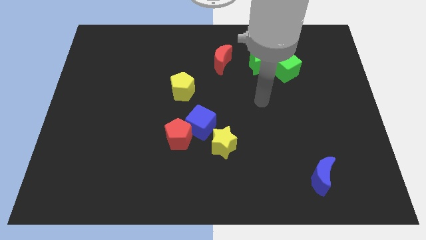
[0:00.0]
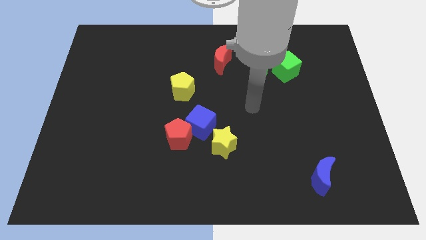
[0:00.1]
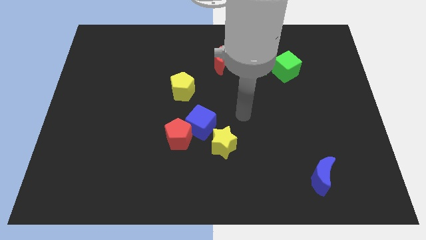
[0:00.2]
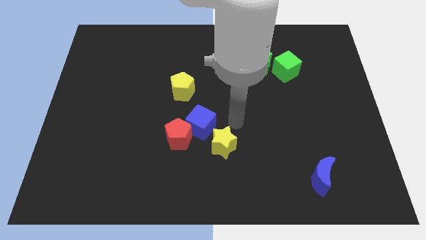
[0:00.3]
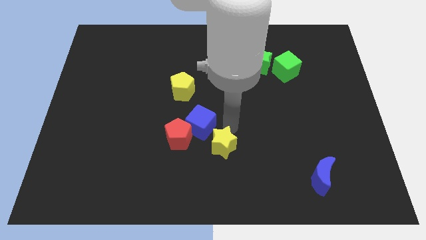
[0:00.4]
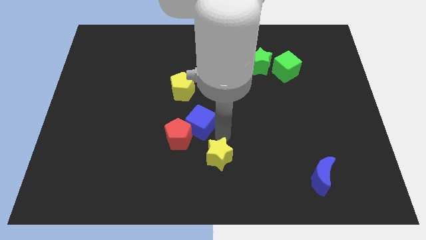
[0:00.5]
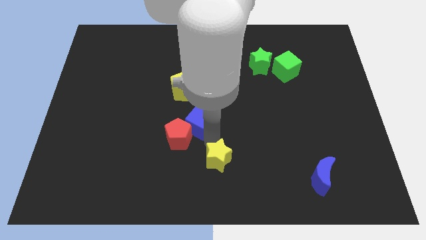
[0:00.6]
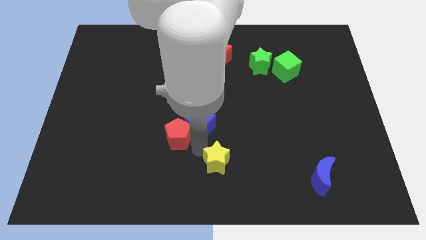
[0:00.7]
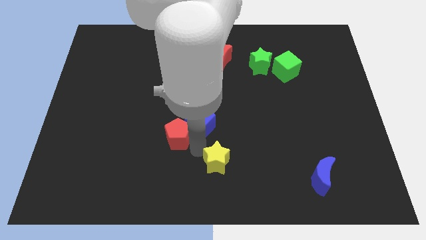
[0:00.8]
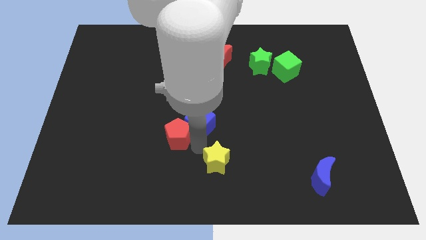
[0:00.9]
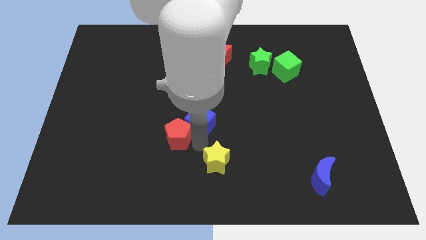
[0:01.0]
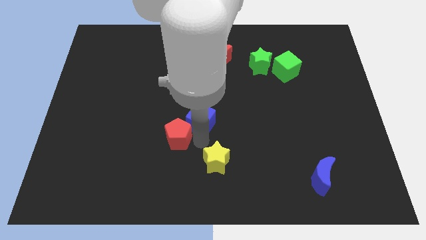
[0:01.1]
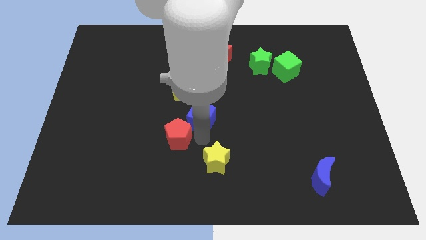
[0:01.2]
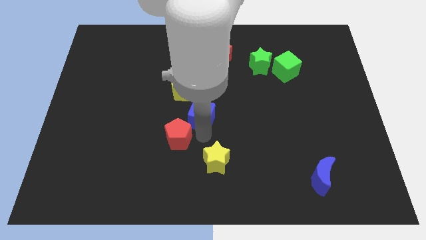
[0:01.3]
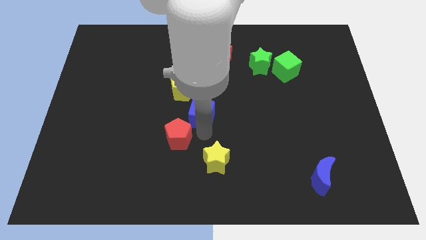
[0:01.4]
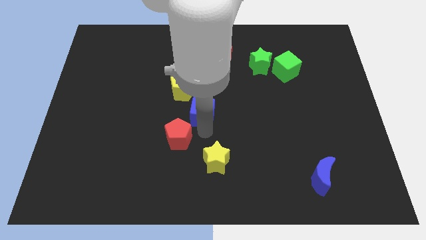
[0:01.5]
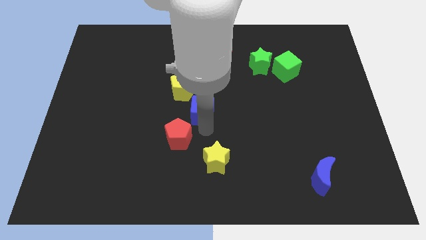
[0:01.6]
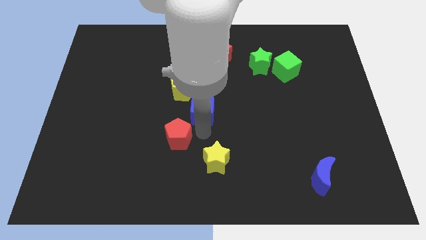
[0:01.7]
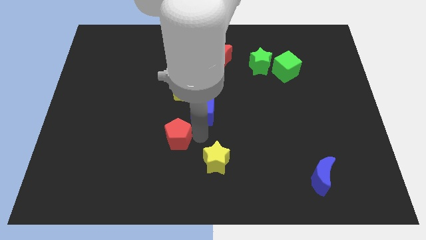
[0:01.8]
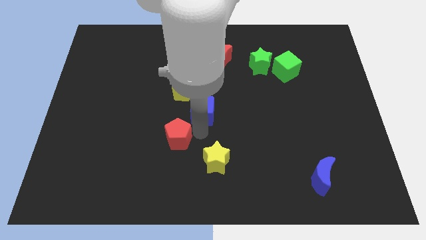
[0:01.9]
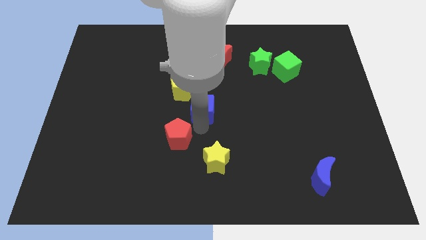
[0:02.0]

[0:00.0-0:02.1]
pull the blue cube apart from the red pentagon and yellow star

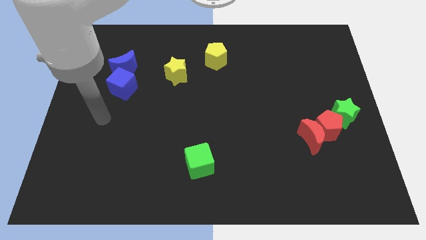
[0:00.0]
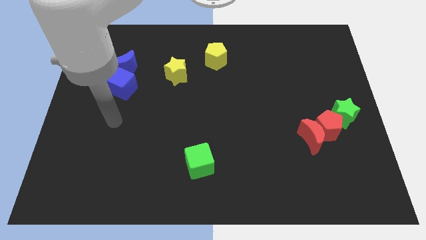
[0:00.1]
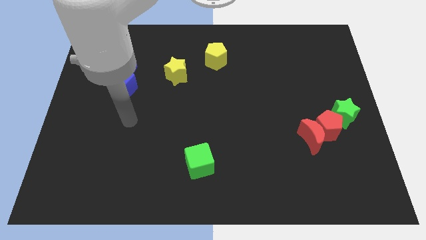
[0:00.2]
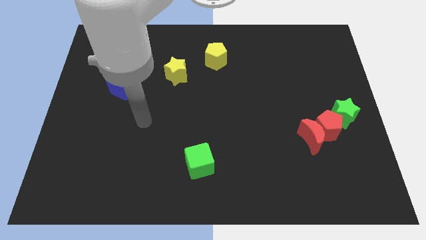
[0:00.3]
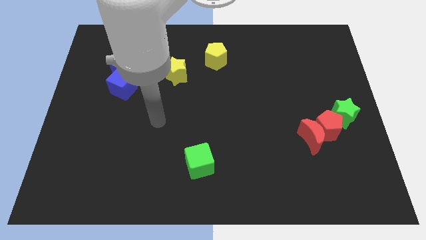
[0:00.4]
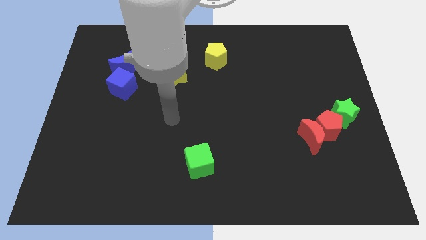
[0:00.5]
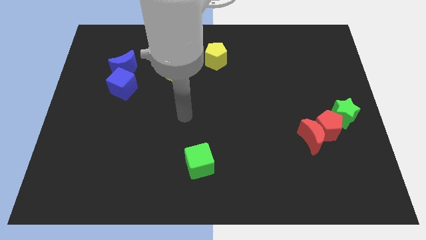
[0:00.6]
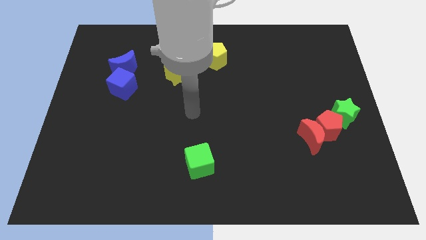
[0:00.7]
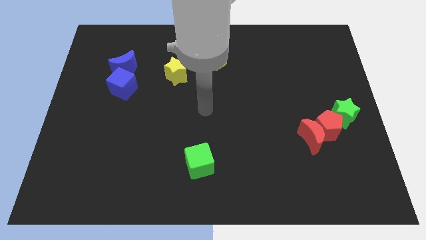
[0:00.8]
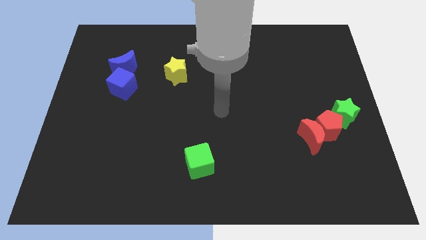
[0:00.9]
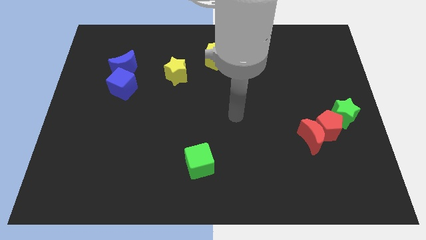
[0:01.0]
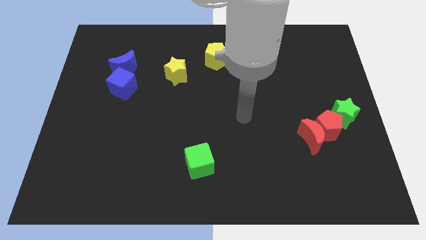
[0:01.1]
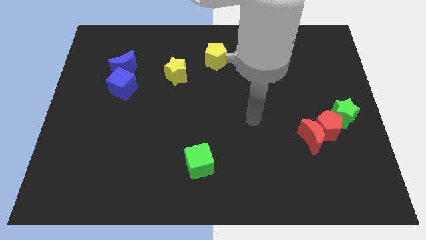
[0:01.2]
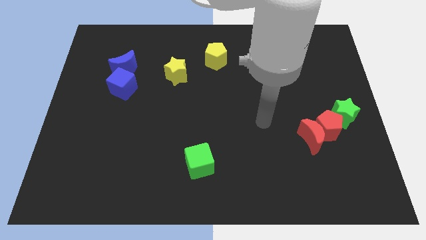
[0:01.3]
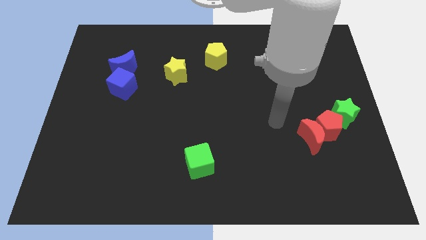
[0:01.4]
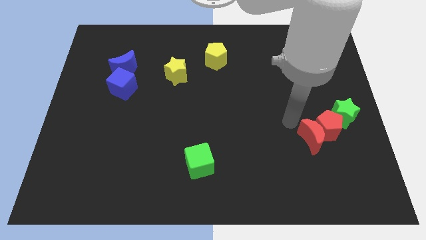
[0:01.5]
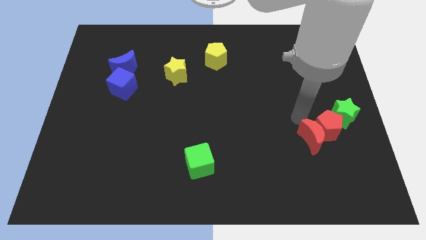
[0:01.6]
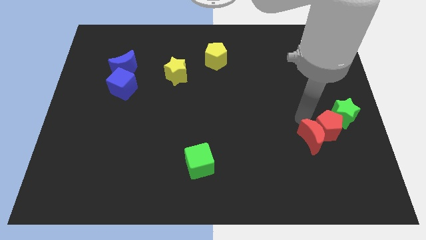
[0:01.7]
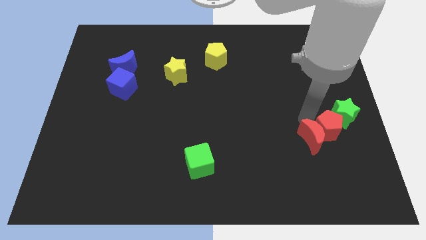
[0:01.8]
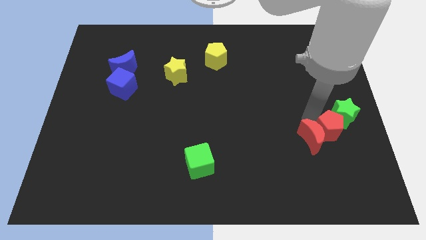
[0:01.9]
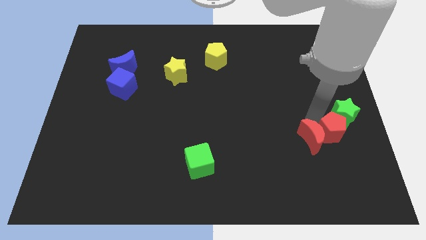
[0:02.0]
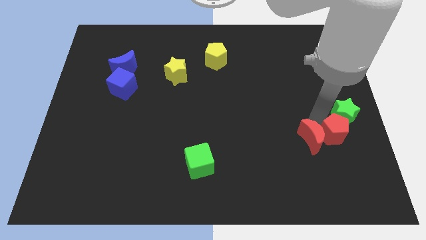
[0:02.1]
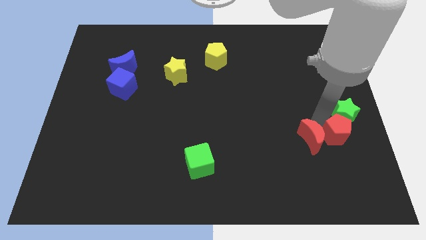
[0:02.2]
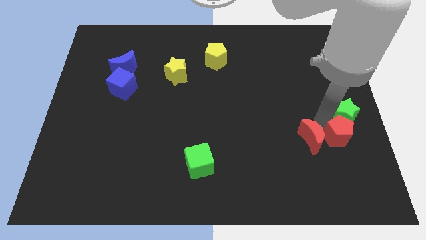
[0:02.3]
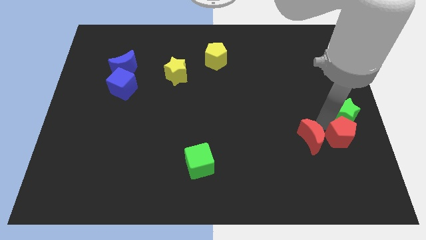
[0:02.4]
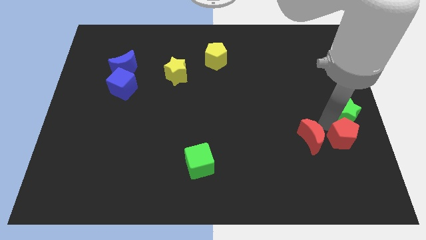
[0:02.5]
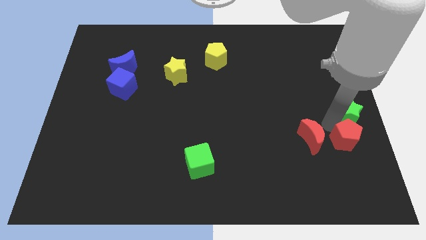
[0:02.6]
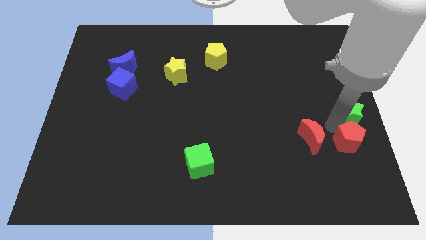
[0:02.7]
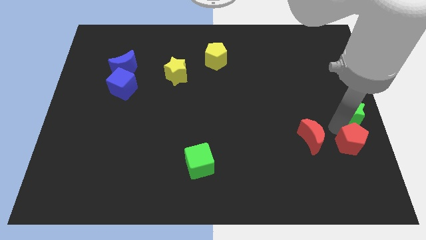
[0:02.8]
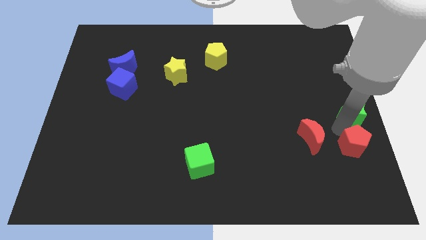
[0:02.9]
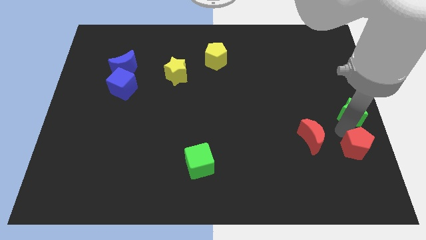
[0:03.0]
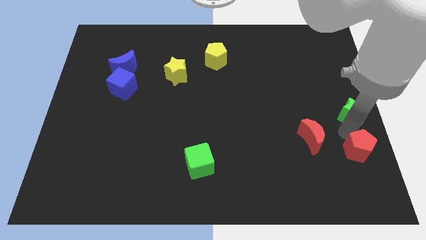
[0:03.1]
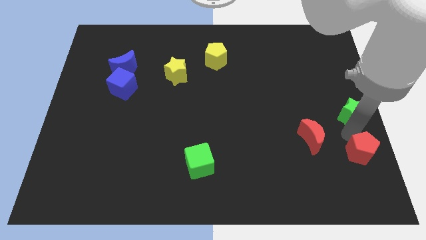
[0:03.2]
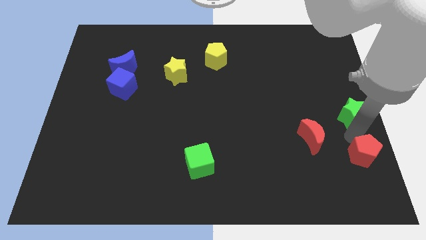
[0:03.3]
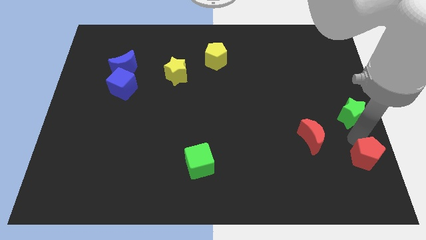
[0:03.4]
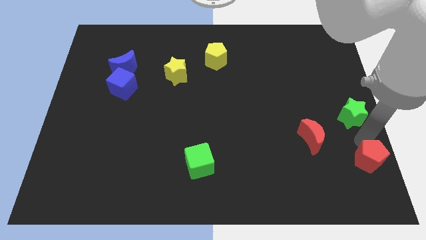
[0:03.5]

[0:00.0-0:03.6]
pull the red pentagon apart from the red moon and green star

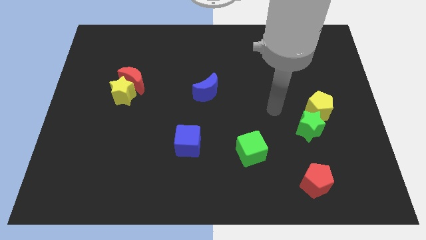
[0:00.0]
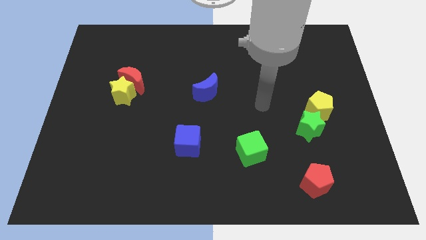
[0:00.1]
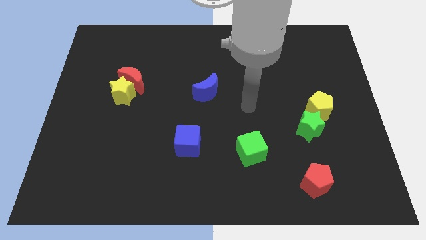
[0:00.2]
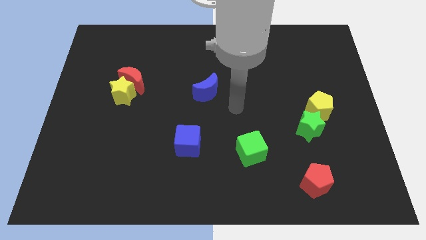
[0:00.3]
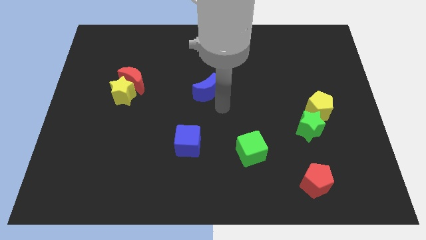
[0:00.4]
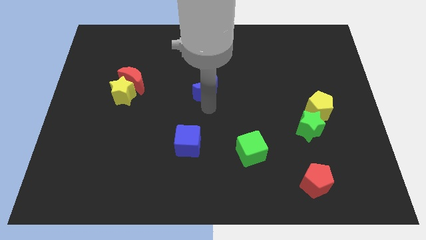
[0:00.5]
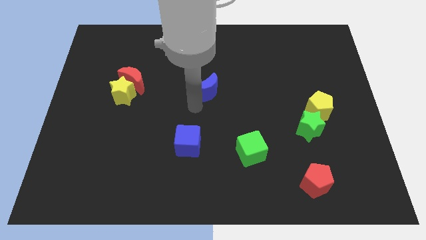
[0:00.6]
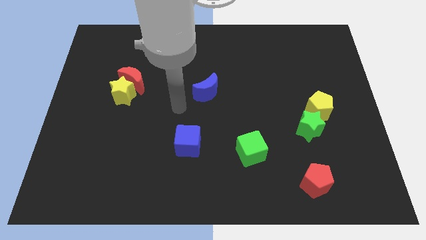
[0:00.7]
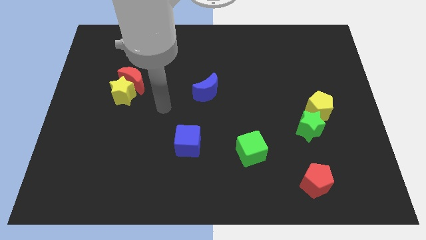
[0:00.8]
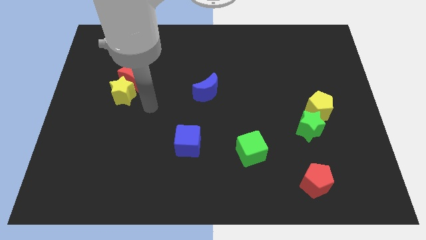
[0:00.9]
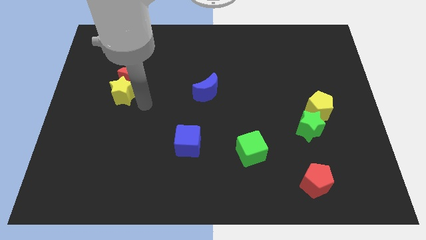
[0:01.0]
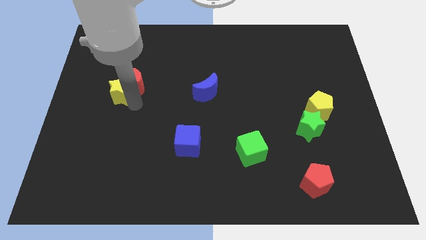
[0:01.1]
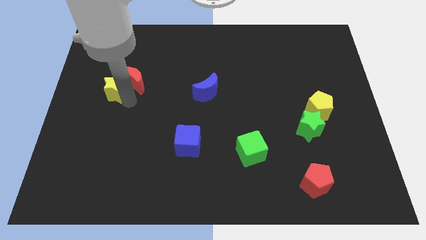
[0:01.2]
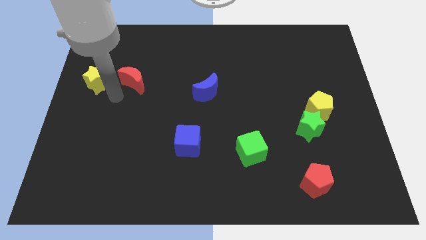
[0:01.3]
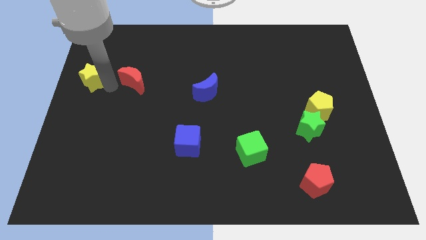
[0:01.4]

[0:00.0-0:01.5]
separate the red moon from the yellow star

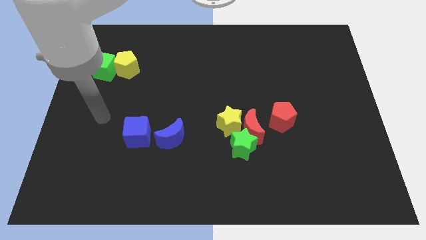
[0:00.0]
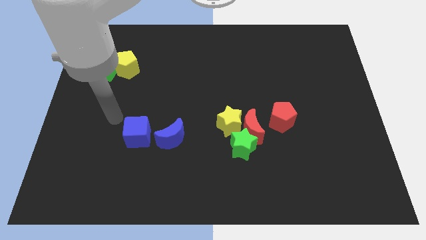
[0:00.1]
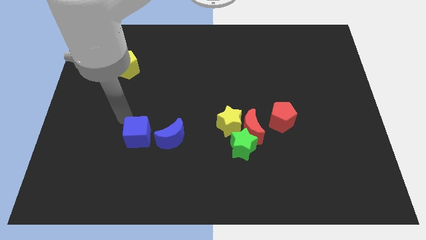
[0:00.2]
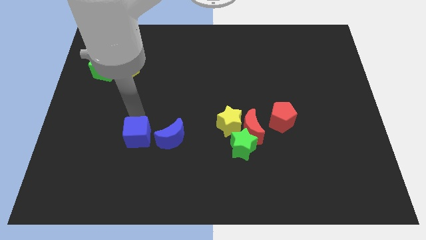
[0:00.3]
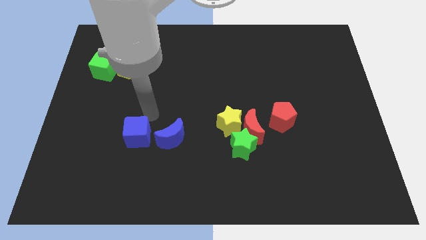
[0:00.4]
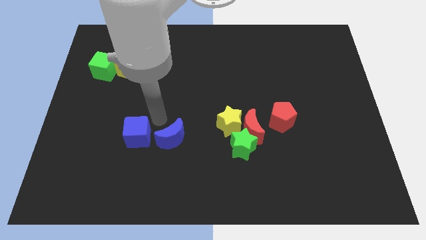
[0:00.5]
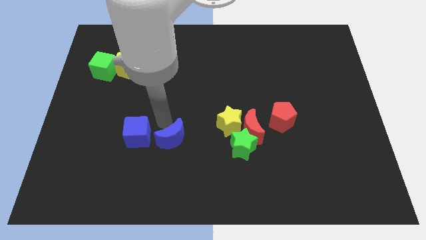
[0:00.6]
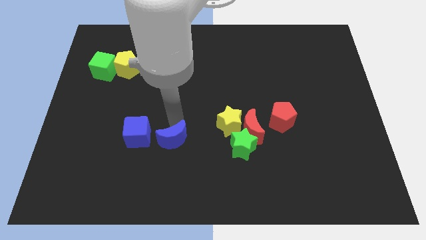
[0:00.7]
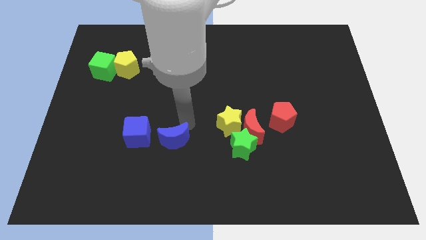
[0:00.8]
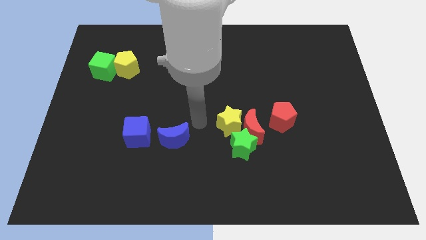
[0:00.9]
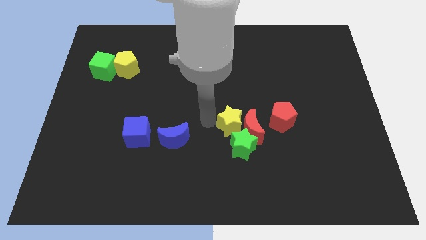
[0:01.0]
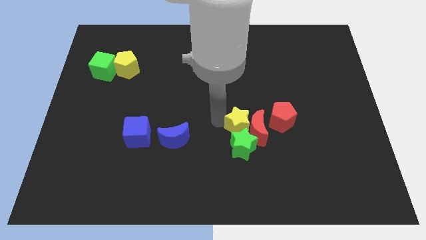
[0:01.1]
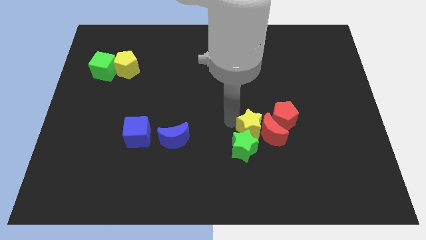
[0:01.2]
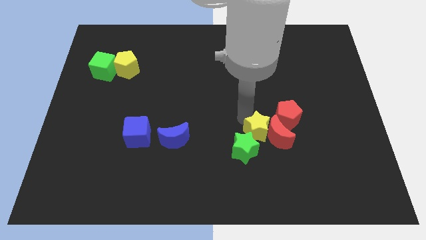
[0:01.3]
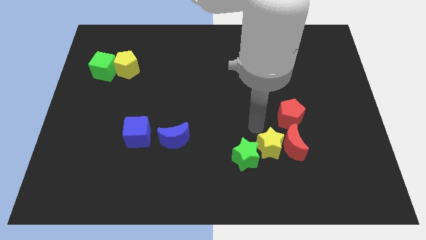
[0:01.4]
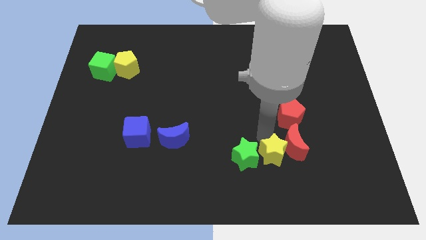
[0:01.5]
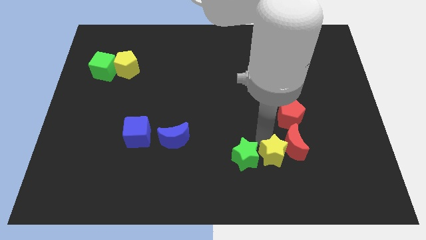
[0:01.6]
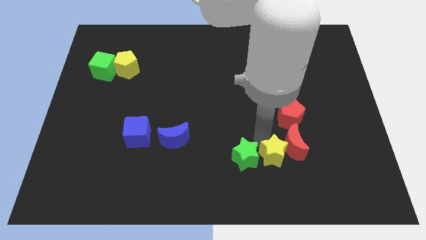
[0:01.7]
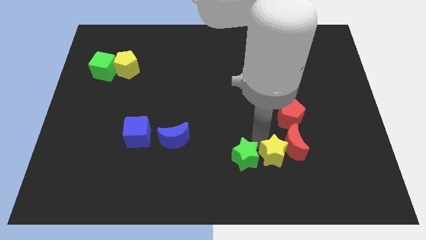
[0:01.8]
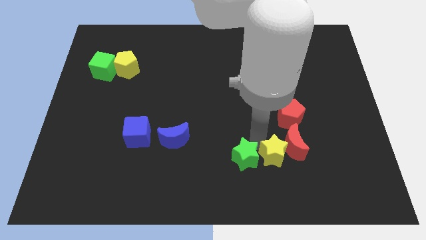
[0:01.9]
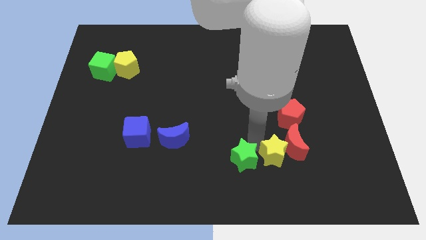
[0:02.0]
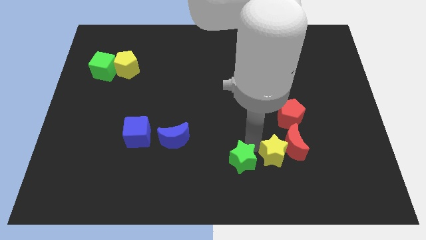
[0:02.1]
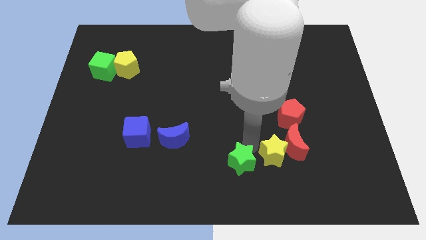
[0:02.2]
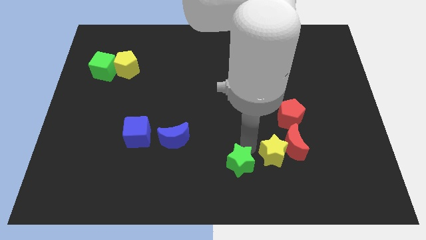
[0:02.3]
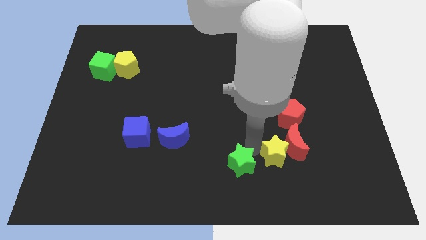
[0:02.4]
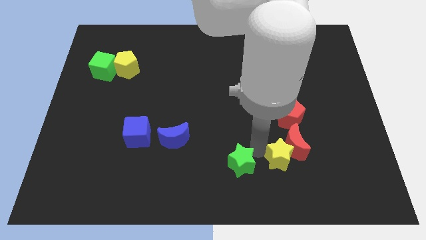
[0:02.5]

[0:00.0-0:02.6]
move the green star away from the red moon and yellow star
